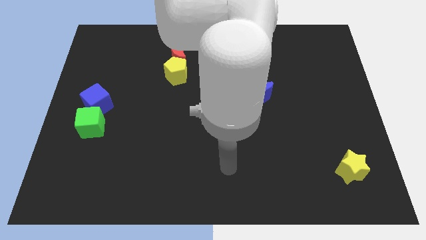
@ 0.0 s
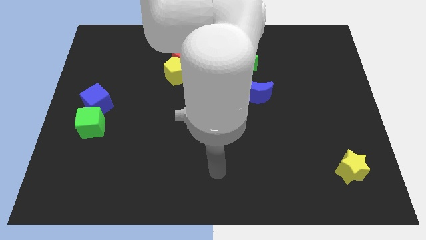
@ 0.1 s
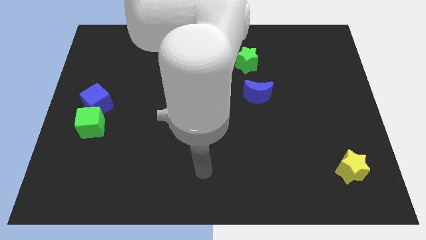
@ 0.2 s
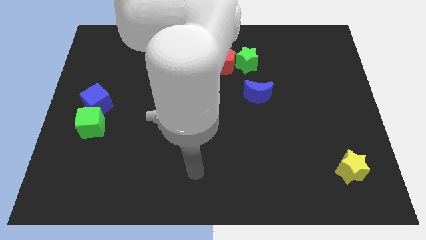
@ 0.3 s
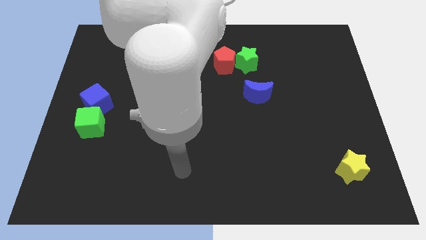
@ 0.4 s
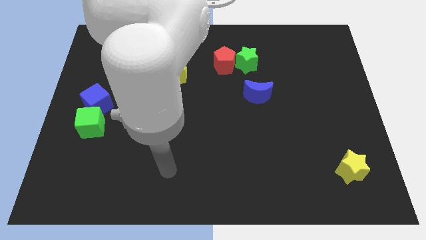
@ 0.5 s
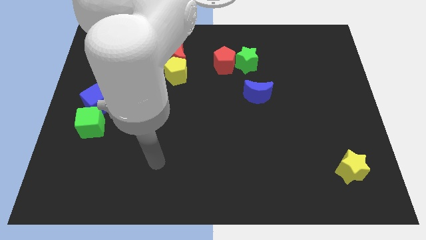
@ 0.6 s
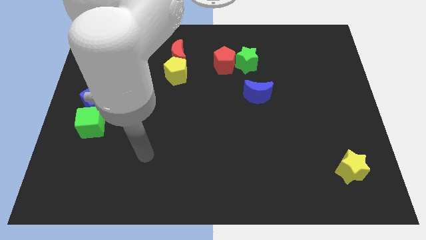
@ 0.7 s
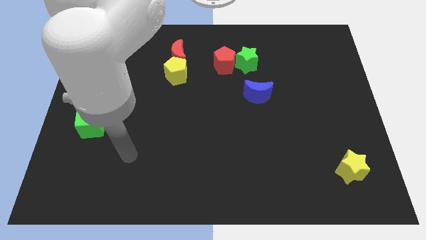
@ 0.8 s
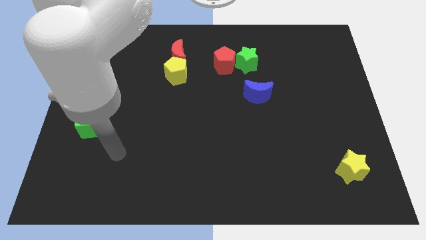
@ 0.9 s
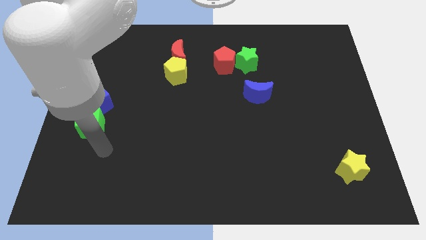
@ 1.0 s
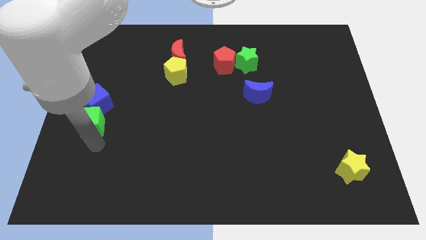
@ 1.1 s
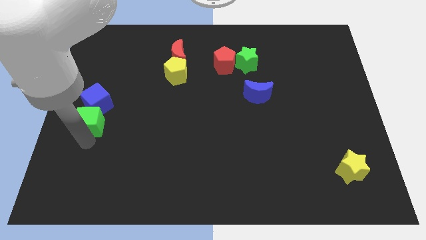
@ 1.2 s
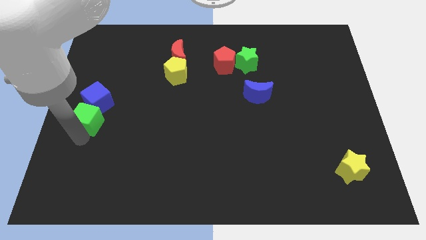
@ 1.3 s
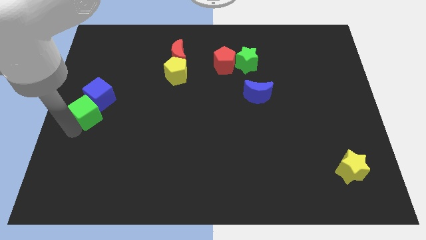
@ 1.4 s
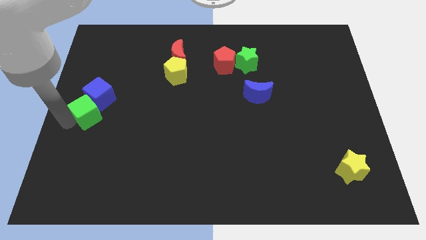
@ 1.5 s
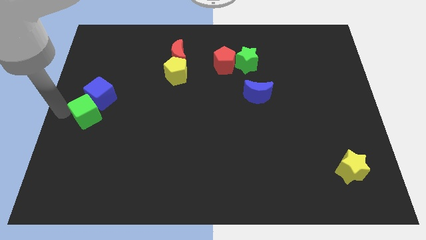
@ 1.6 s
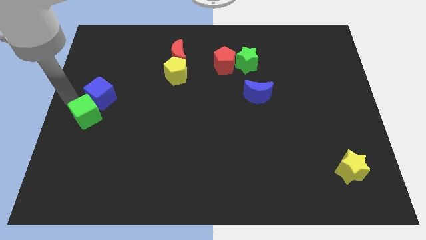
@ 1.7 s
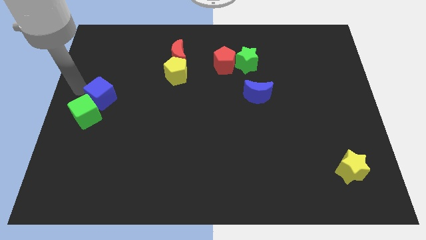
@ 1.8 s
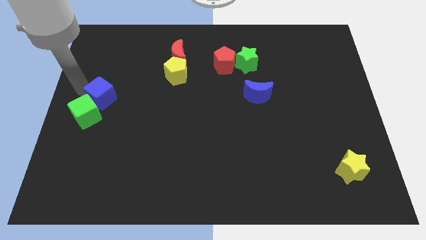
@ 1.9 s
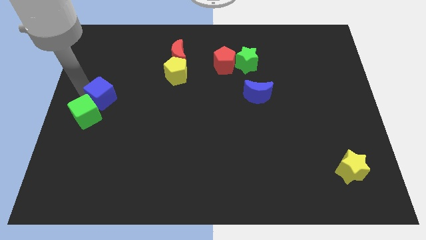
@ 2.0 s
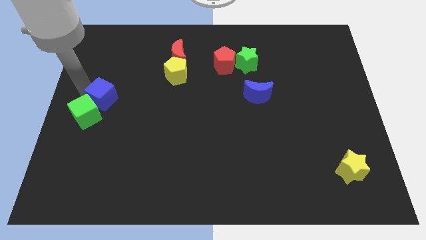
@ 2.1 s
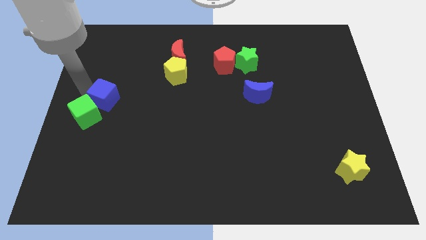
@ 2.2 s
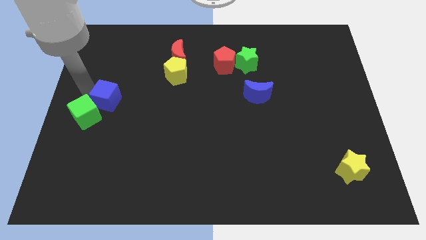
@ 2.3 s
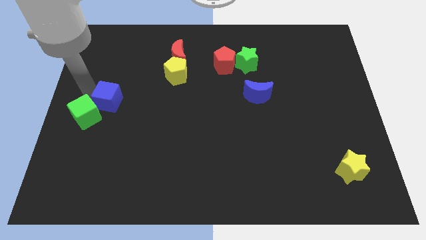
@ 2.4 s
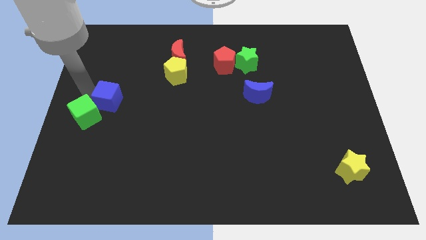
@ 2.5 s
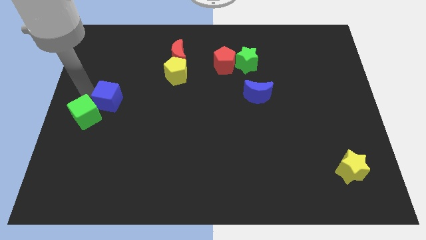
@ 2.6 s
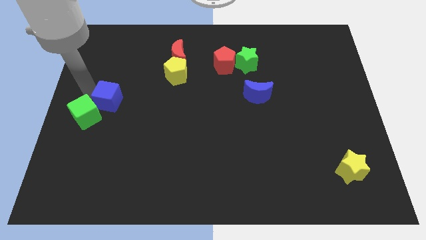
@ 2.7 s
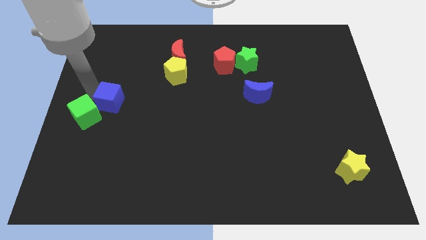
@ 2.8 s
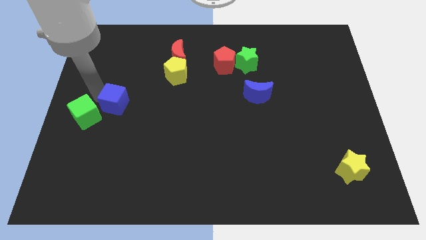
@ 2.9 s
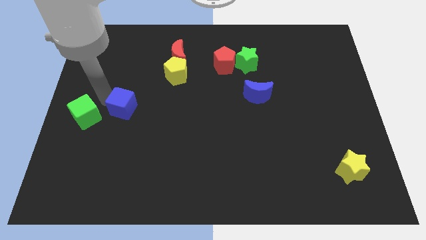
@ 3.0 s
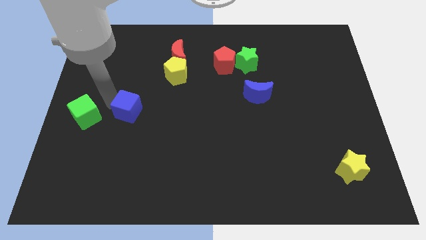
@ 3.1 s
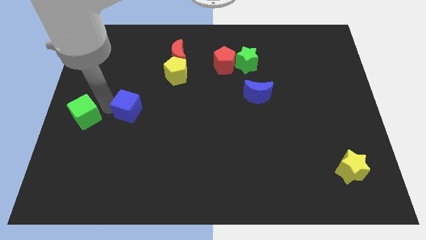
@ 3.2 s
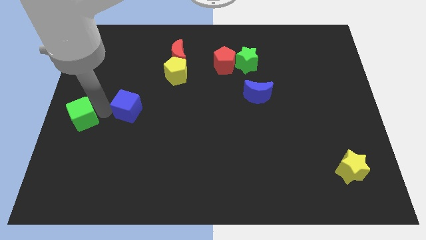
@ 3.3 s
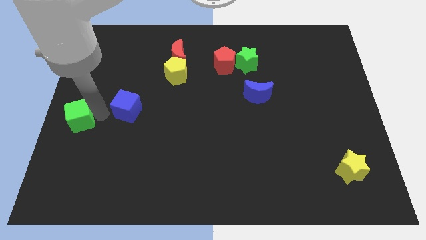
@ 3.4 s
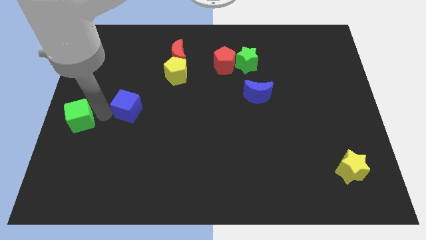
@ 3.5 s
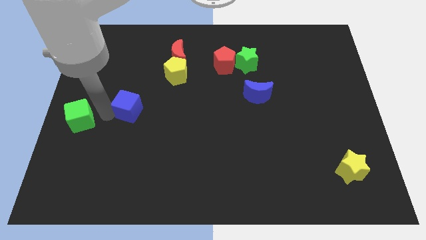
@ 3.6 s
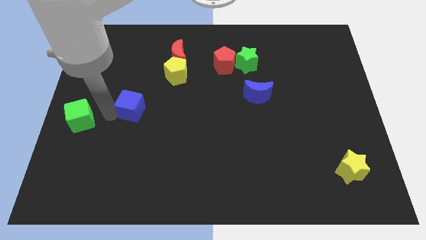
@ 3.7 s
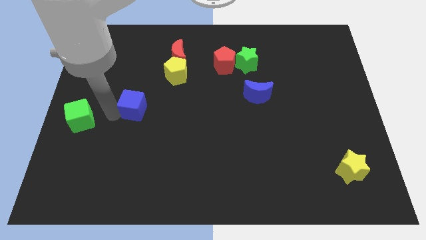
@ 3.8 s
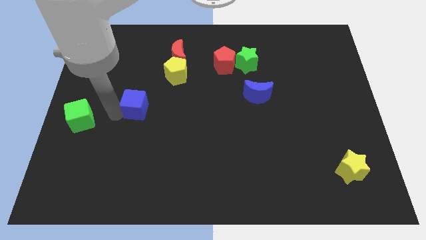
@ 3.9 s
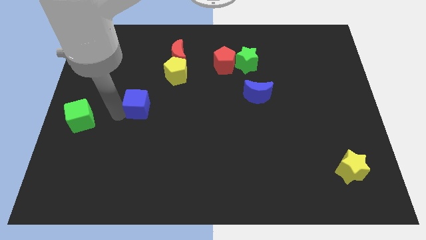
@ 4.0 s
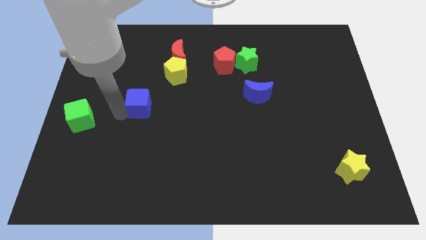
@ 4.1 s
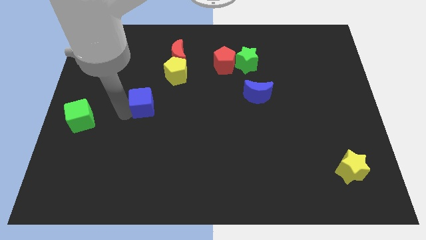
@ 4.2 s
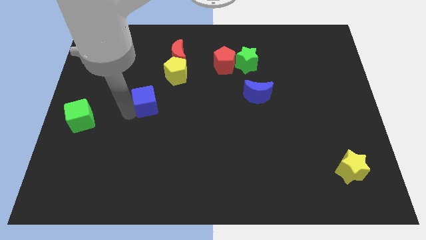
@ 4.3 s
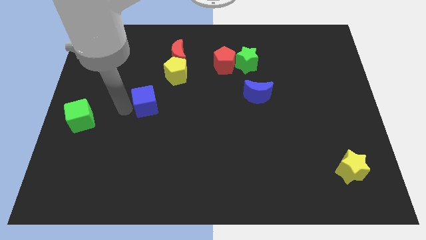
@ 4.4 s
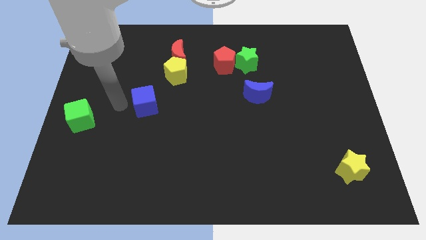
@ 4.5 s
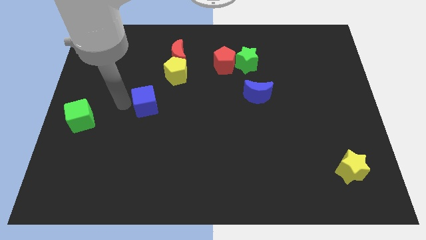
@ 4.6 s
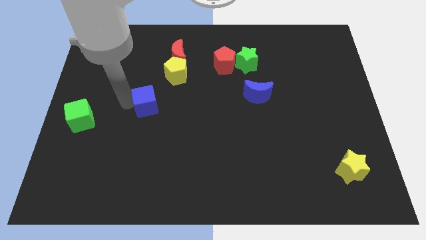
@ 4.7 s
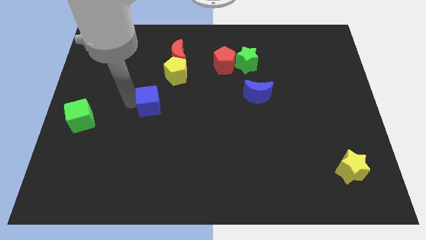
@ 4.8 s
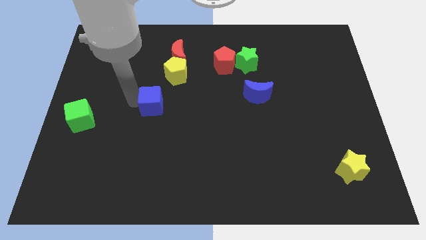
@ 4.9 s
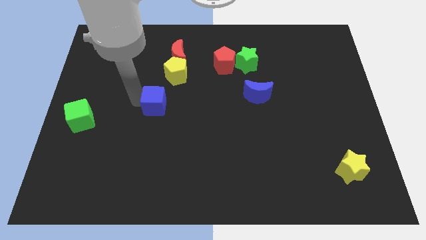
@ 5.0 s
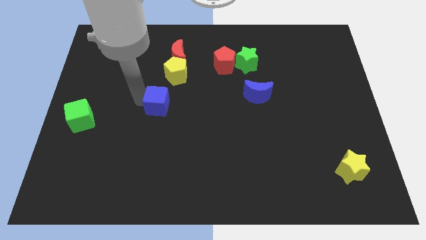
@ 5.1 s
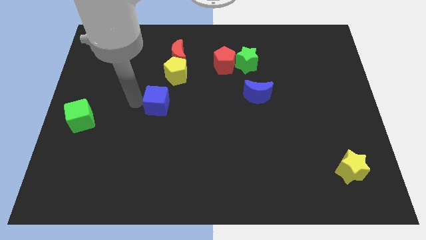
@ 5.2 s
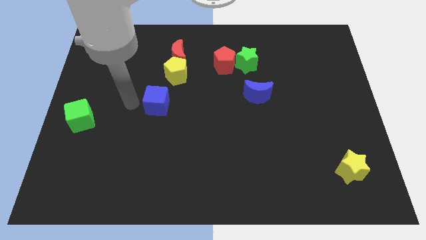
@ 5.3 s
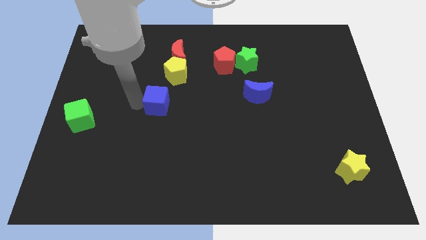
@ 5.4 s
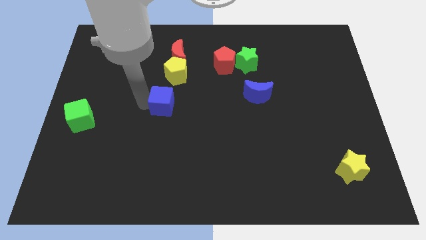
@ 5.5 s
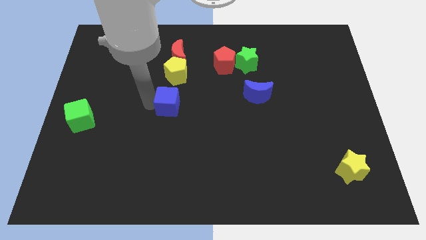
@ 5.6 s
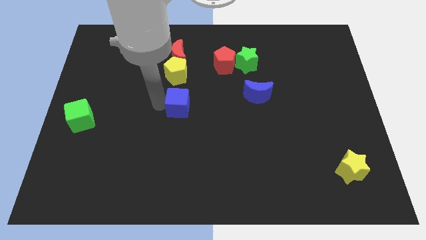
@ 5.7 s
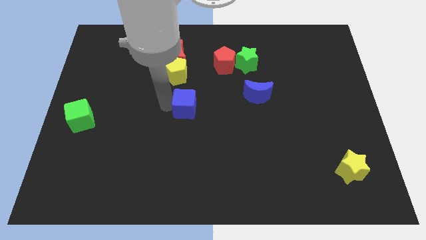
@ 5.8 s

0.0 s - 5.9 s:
slide the blue cube right

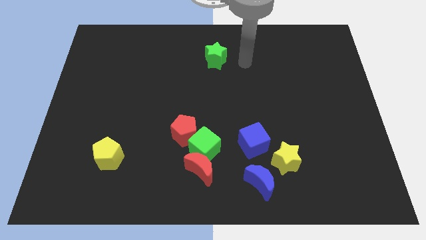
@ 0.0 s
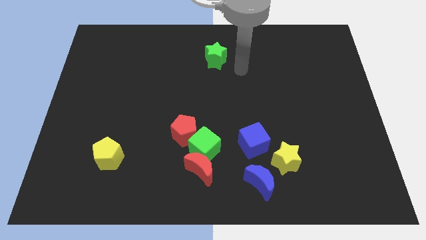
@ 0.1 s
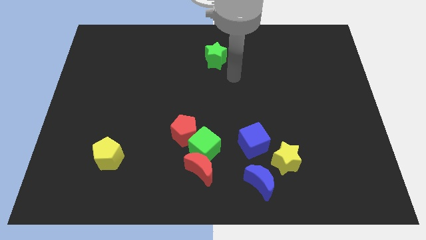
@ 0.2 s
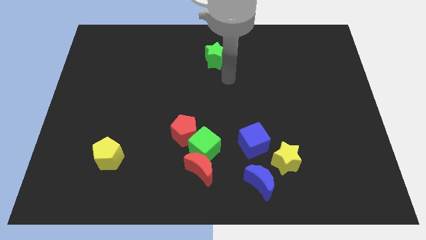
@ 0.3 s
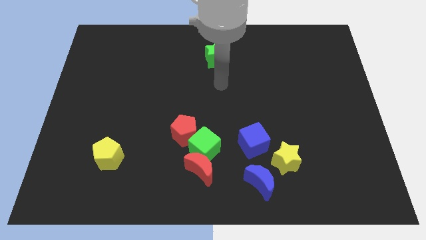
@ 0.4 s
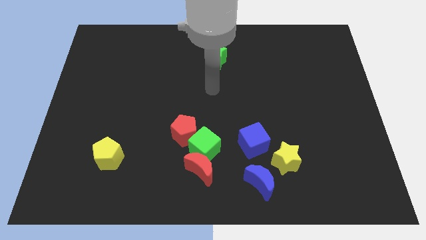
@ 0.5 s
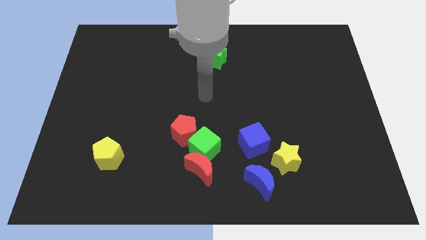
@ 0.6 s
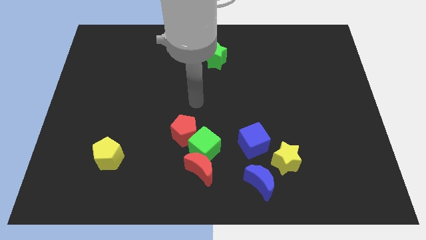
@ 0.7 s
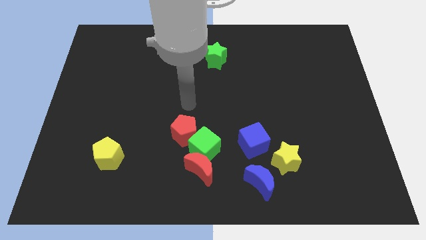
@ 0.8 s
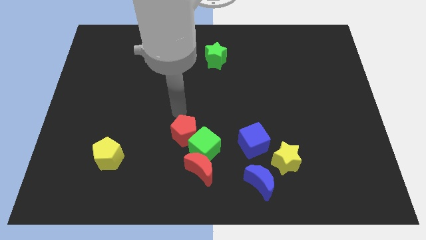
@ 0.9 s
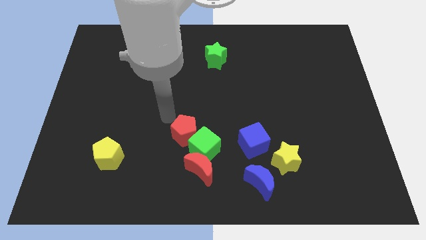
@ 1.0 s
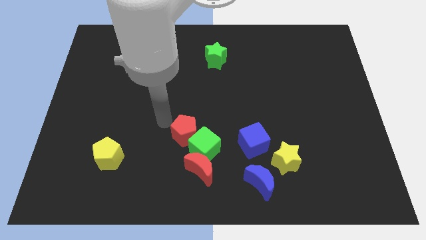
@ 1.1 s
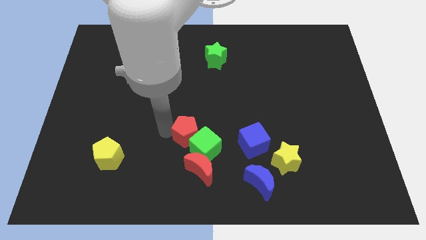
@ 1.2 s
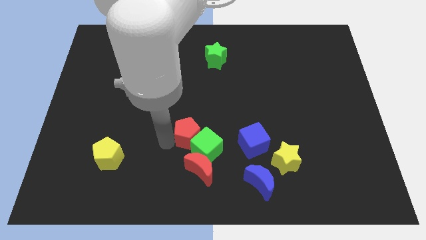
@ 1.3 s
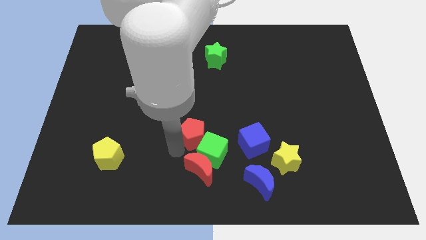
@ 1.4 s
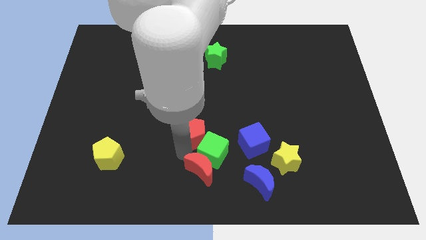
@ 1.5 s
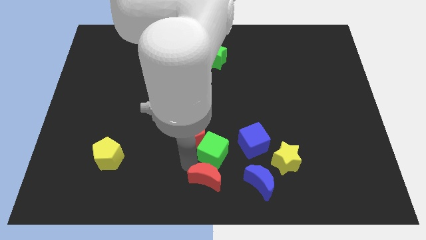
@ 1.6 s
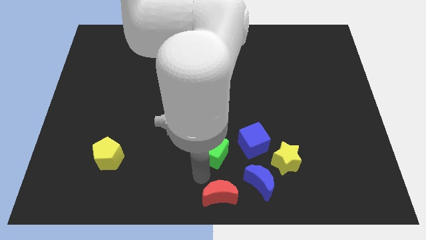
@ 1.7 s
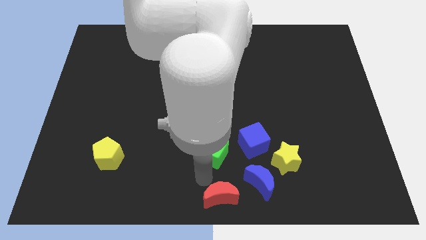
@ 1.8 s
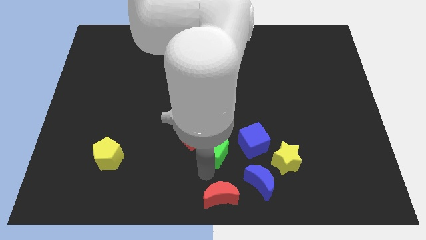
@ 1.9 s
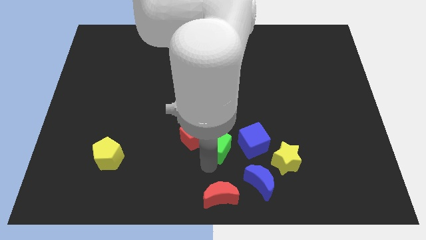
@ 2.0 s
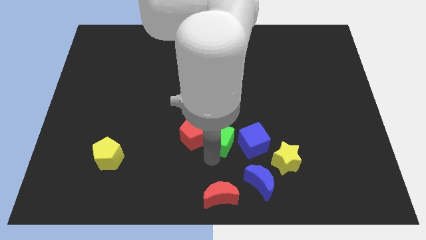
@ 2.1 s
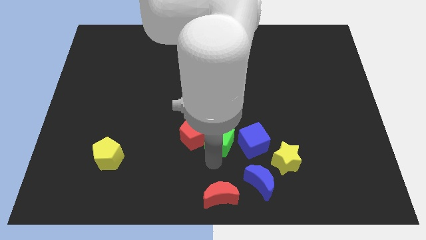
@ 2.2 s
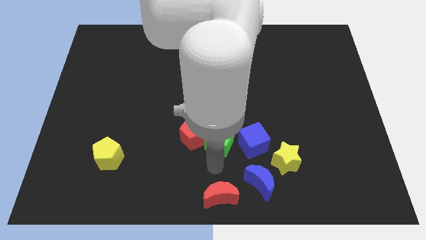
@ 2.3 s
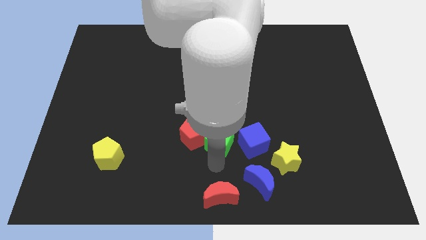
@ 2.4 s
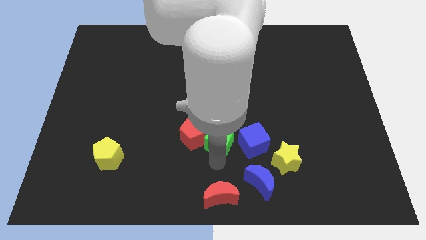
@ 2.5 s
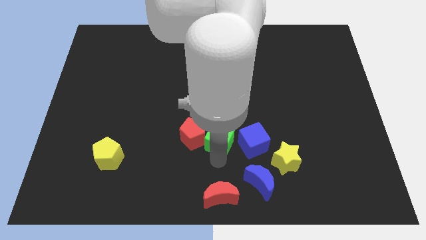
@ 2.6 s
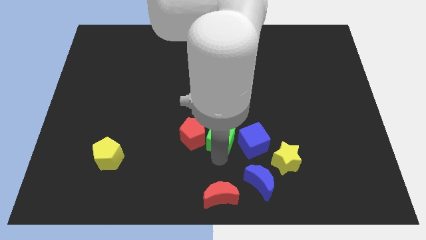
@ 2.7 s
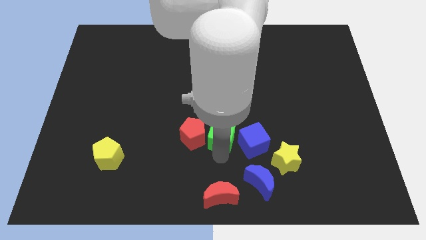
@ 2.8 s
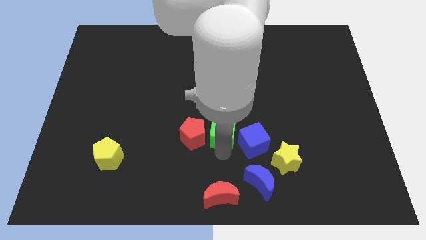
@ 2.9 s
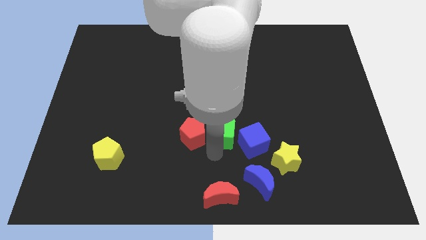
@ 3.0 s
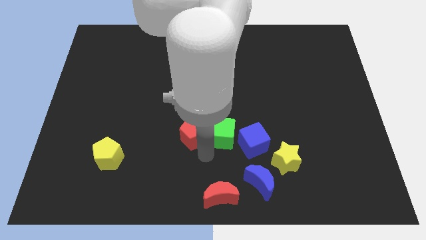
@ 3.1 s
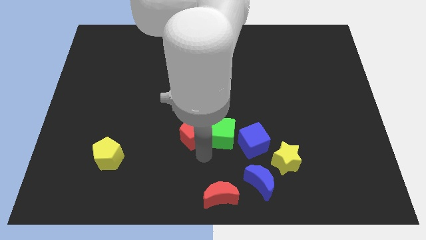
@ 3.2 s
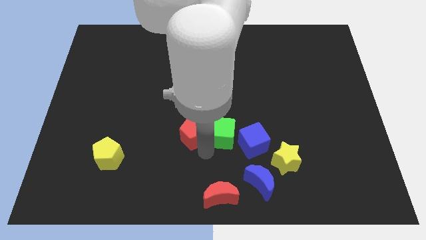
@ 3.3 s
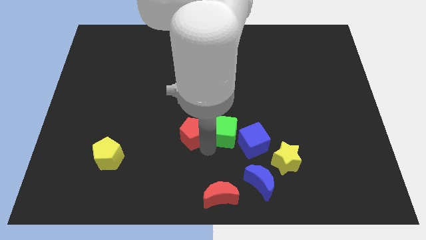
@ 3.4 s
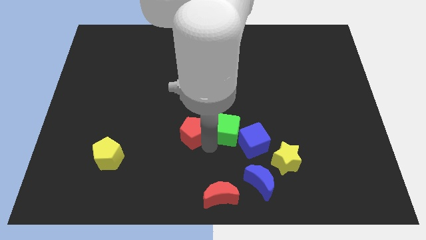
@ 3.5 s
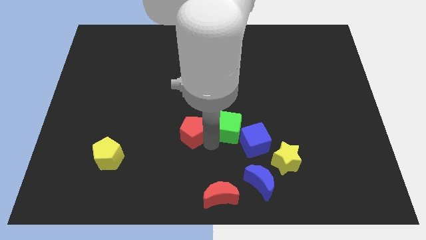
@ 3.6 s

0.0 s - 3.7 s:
slide the green cube a little bit upwards and right diagonally
